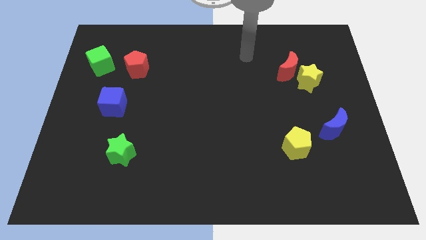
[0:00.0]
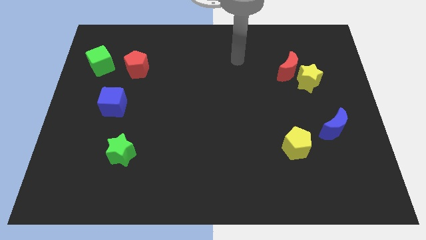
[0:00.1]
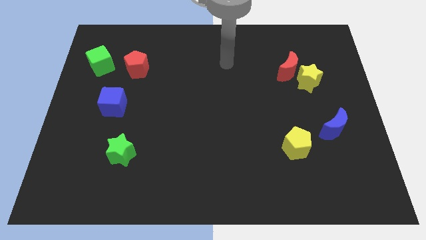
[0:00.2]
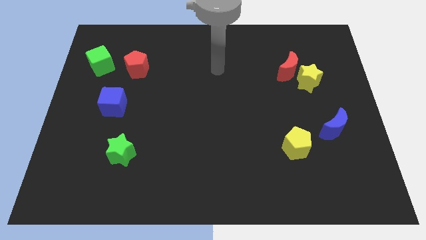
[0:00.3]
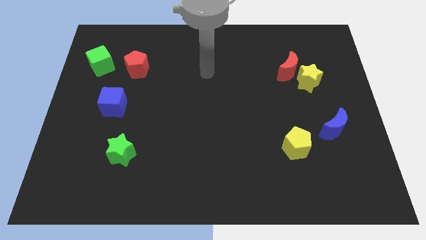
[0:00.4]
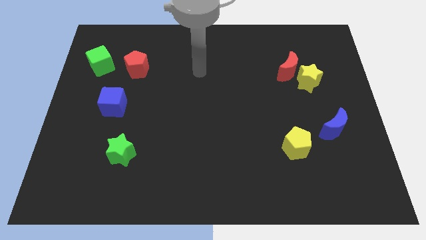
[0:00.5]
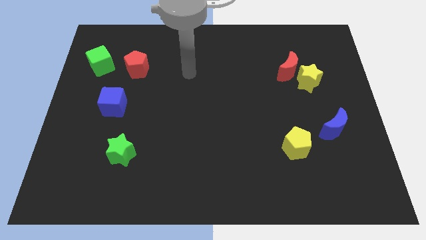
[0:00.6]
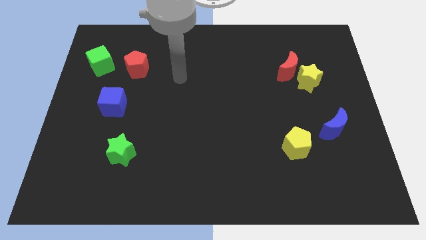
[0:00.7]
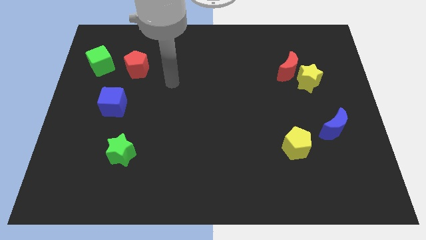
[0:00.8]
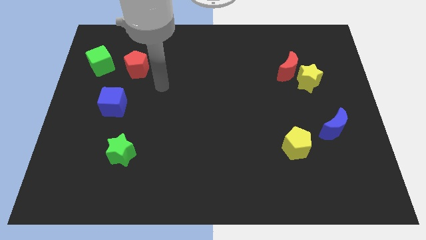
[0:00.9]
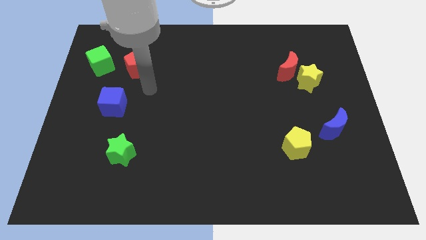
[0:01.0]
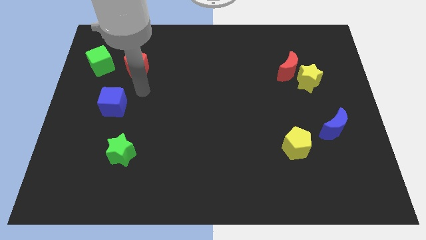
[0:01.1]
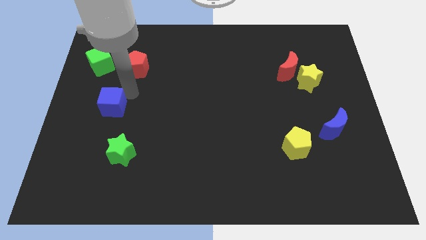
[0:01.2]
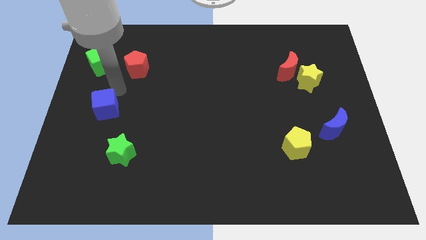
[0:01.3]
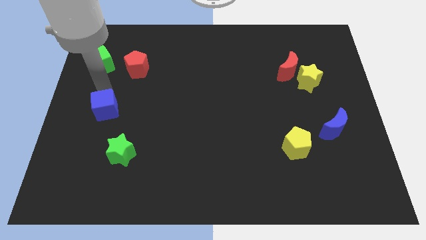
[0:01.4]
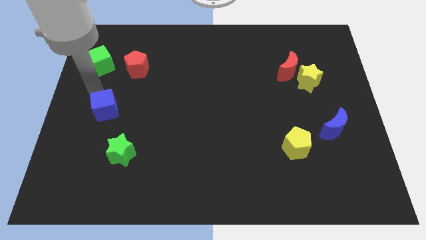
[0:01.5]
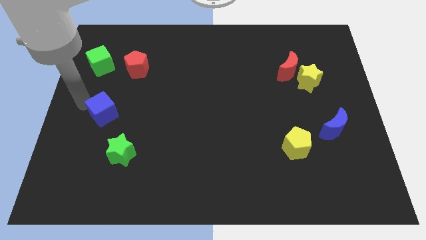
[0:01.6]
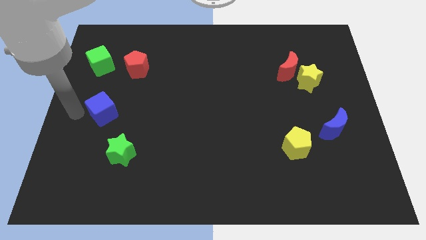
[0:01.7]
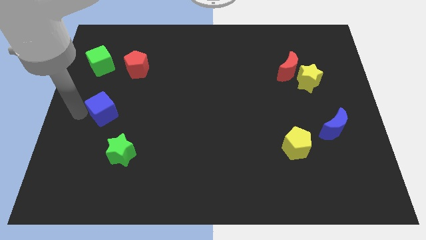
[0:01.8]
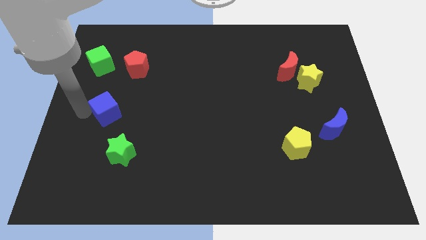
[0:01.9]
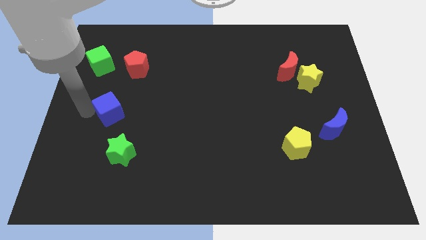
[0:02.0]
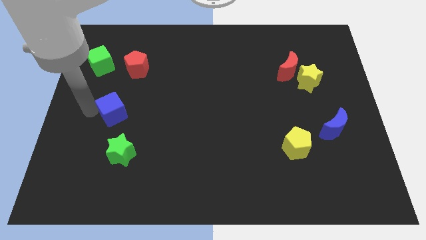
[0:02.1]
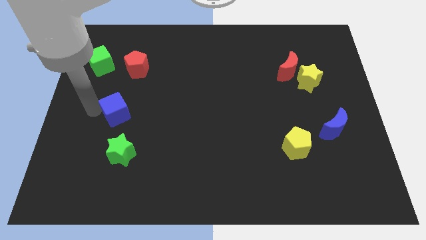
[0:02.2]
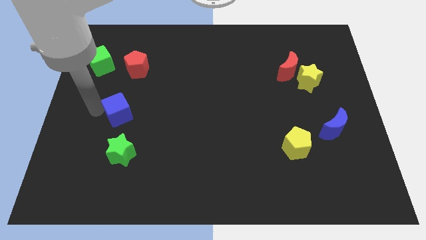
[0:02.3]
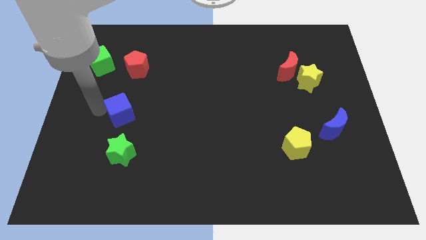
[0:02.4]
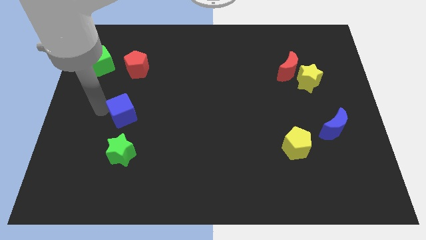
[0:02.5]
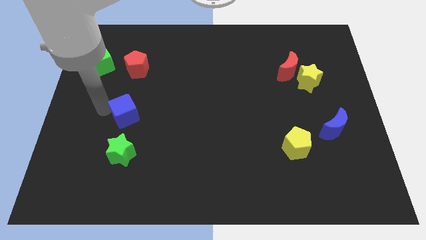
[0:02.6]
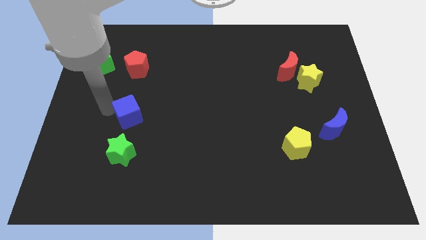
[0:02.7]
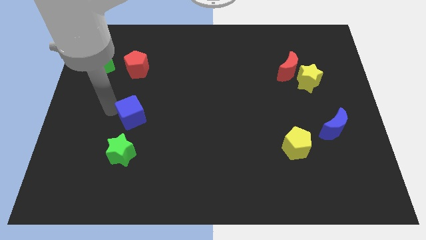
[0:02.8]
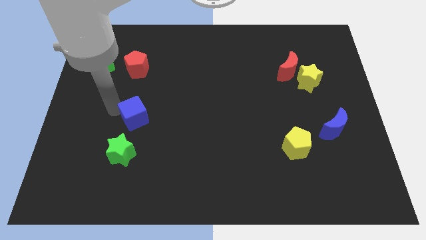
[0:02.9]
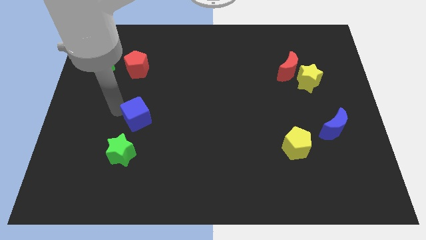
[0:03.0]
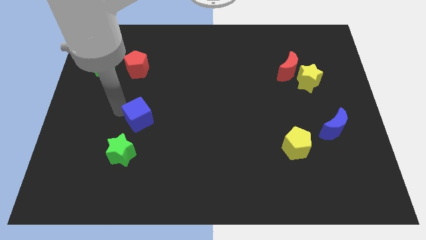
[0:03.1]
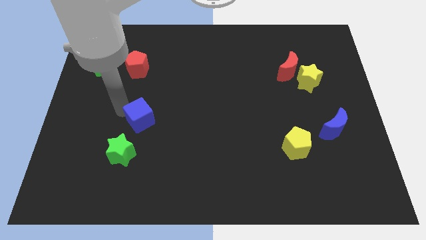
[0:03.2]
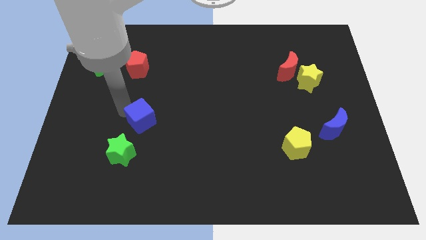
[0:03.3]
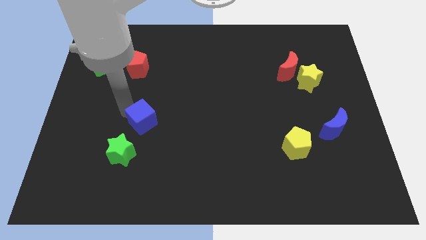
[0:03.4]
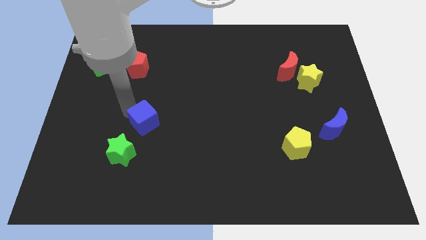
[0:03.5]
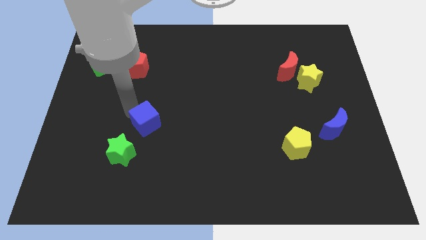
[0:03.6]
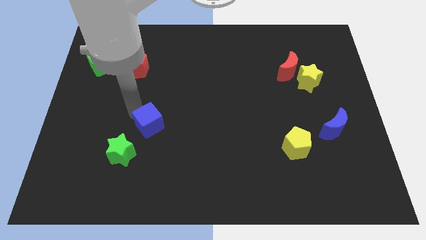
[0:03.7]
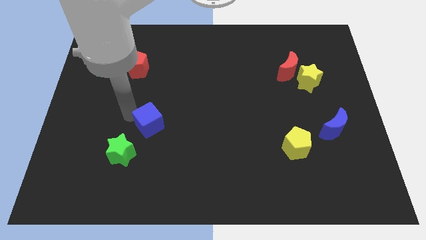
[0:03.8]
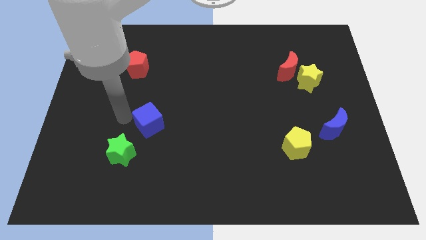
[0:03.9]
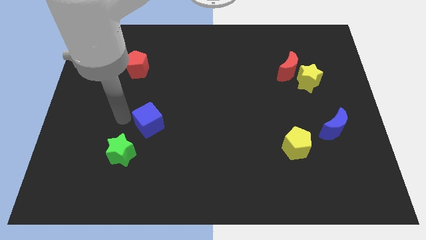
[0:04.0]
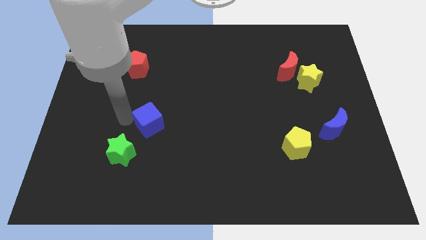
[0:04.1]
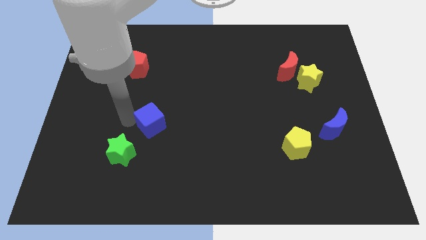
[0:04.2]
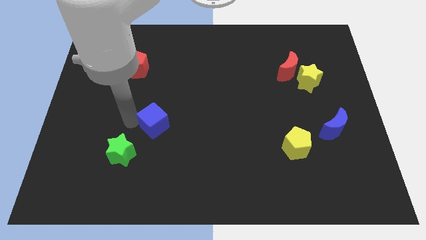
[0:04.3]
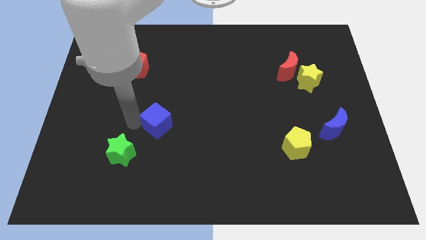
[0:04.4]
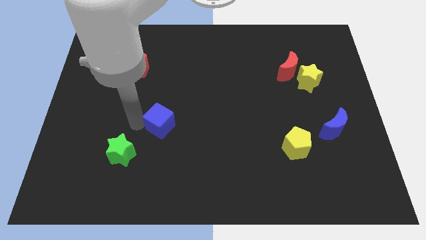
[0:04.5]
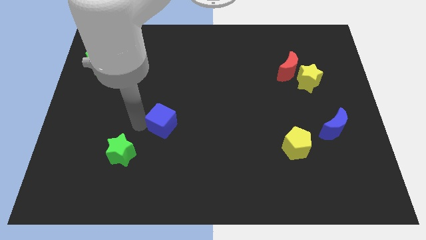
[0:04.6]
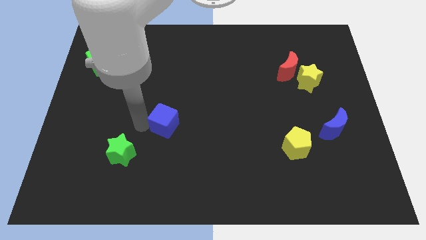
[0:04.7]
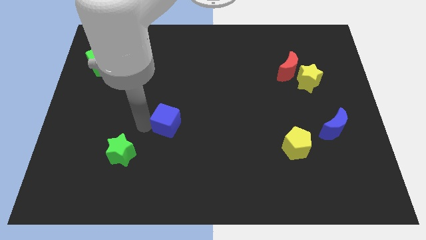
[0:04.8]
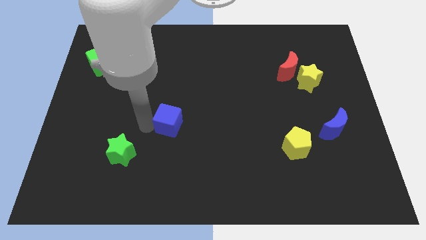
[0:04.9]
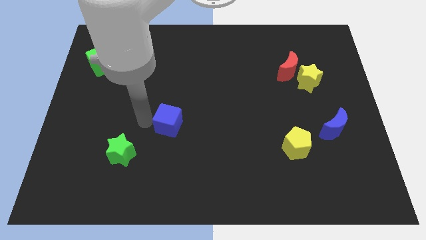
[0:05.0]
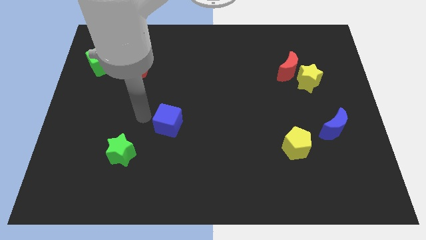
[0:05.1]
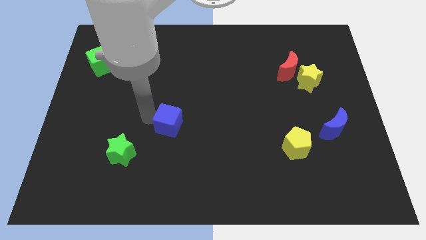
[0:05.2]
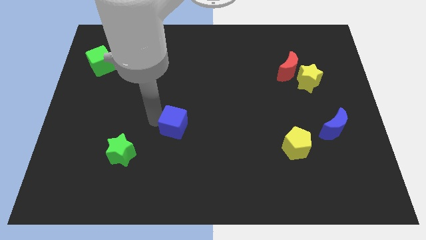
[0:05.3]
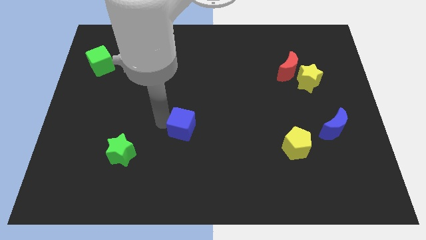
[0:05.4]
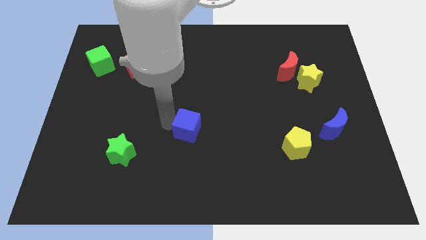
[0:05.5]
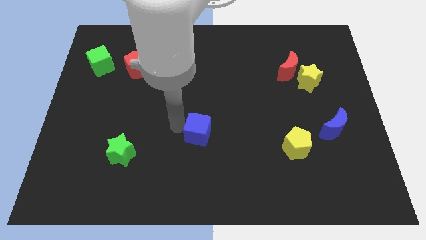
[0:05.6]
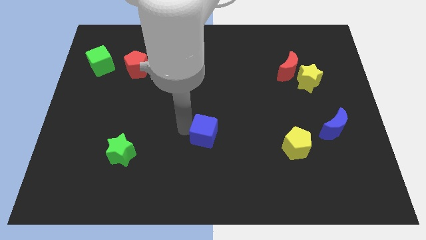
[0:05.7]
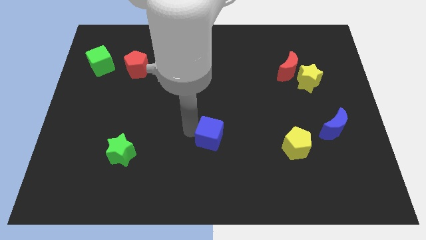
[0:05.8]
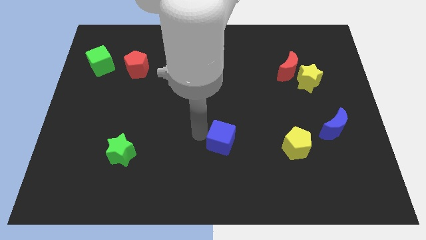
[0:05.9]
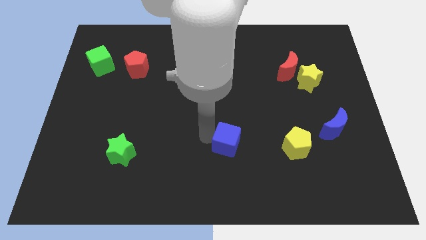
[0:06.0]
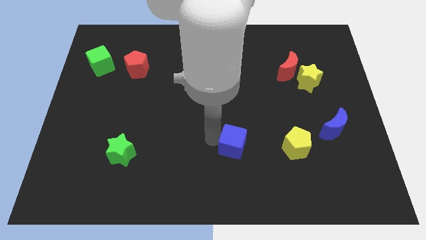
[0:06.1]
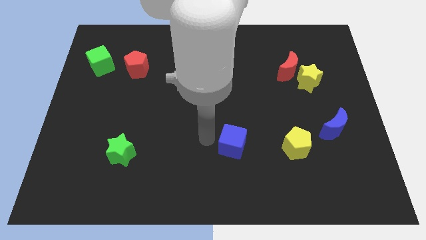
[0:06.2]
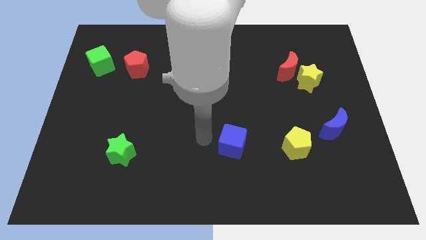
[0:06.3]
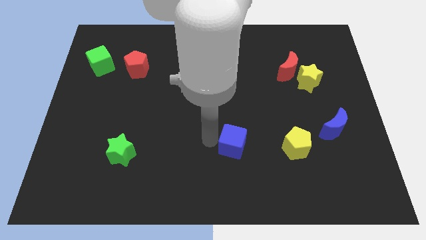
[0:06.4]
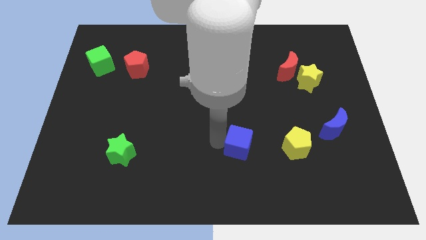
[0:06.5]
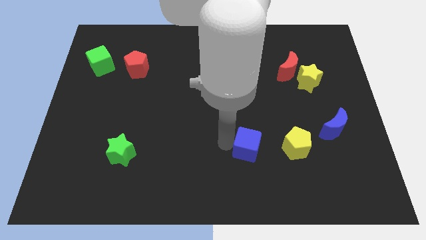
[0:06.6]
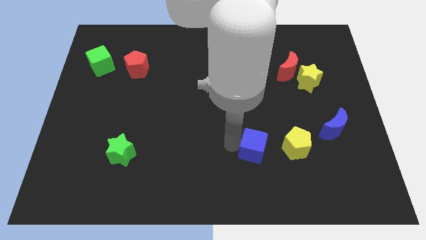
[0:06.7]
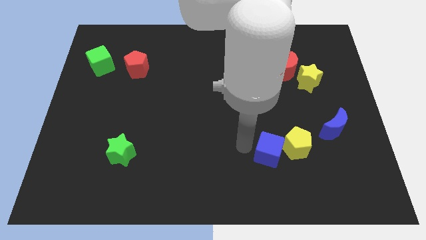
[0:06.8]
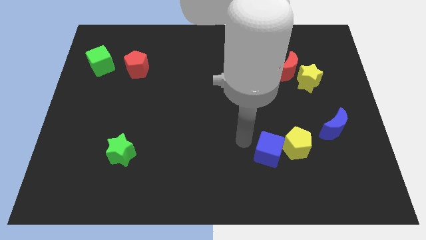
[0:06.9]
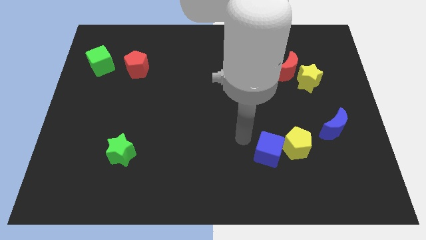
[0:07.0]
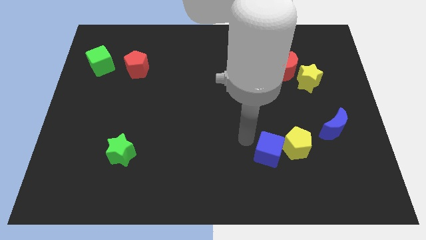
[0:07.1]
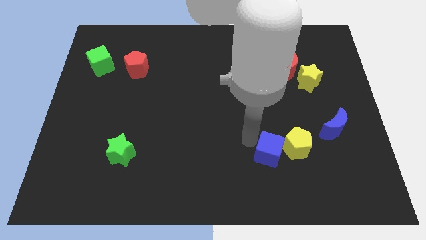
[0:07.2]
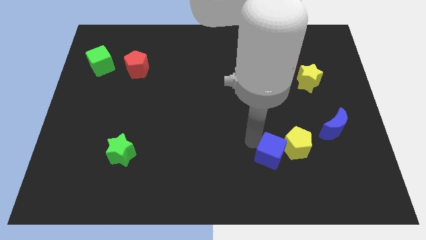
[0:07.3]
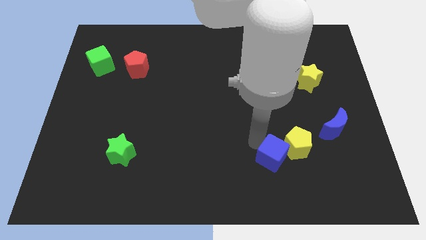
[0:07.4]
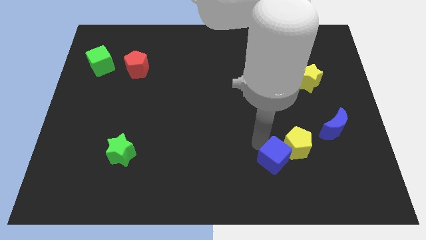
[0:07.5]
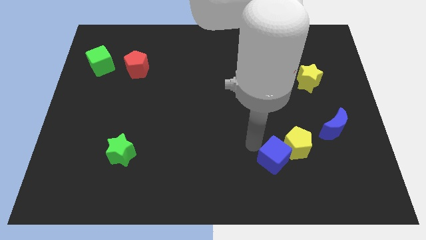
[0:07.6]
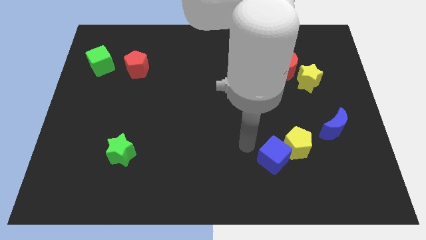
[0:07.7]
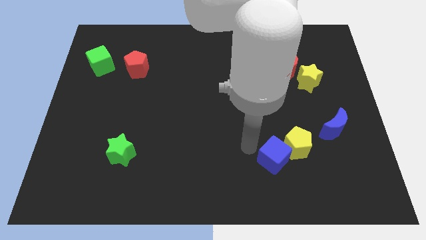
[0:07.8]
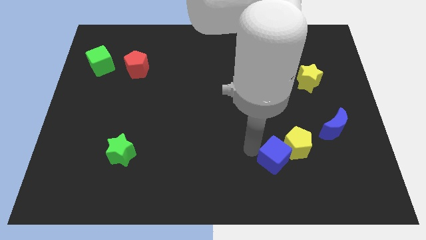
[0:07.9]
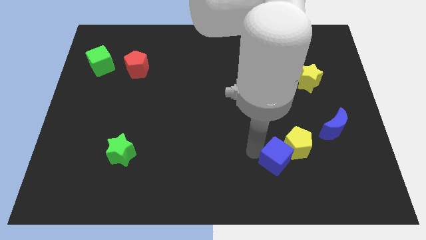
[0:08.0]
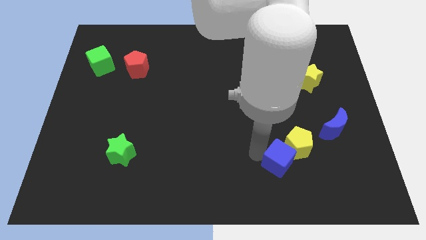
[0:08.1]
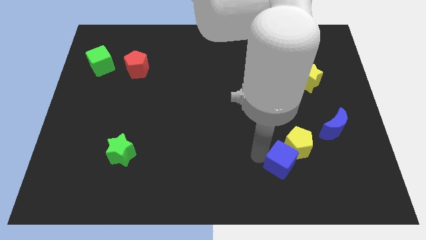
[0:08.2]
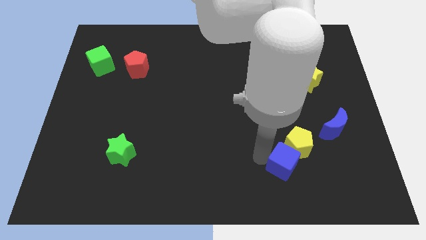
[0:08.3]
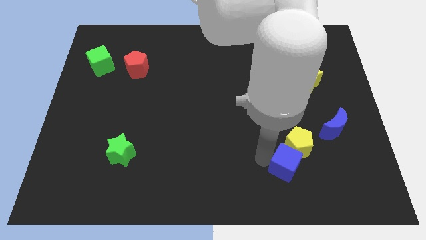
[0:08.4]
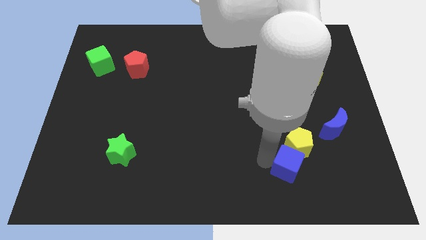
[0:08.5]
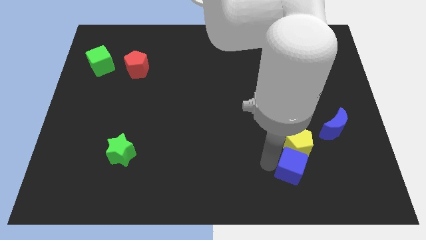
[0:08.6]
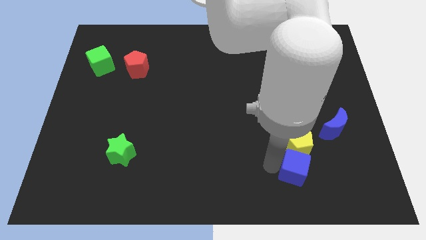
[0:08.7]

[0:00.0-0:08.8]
move the blue cube to the bottom right of the yellow pentagon
